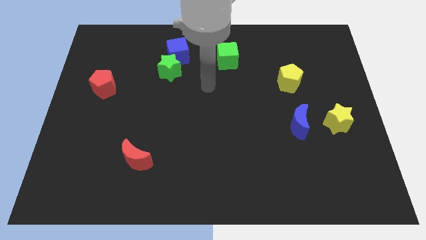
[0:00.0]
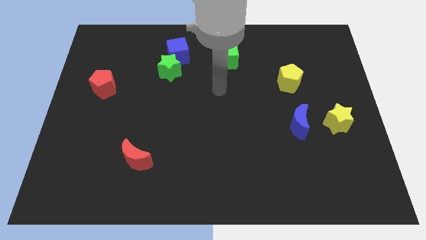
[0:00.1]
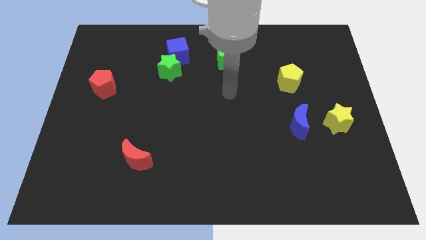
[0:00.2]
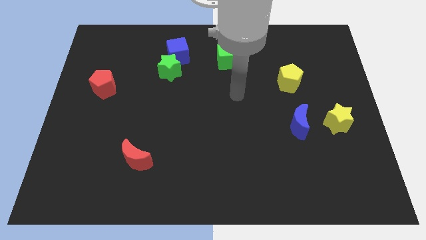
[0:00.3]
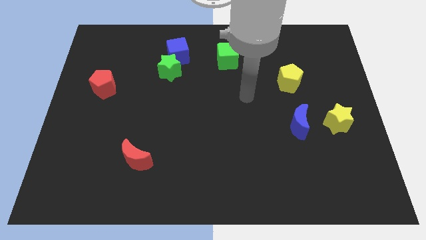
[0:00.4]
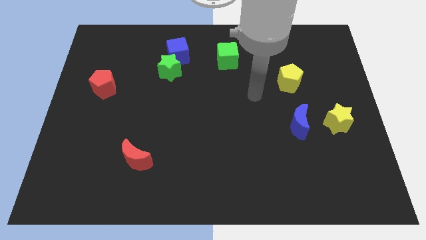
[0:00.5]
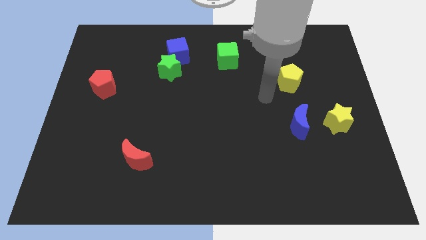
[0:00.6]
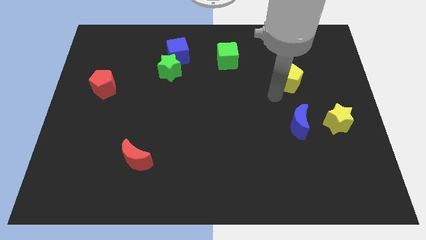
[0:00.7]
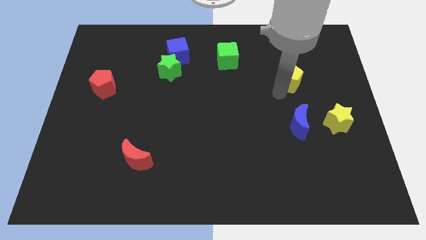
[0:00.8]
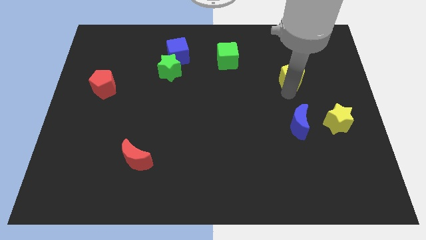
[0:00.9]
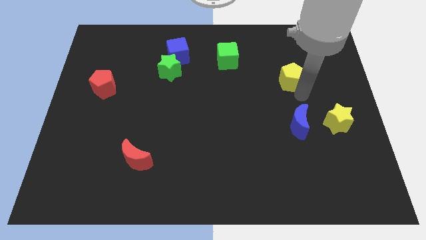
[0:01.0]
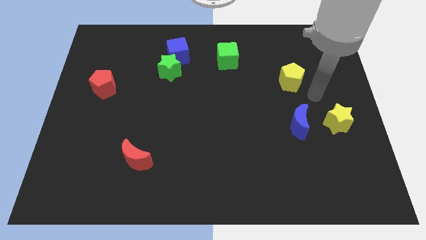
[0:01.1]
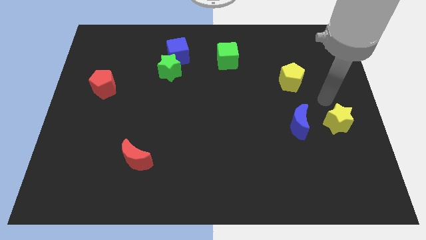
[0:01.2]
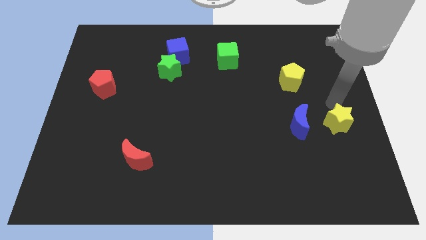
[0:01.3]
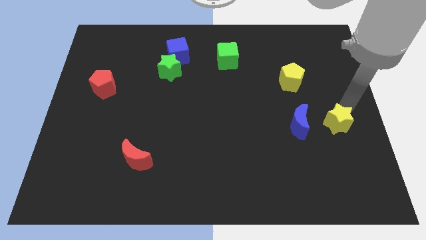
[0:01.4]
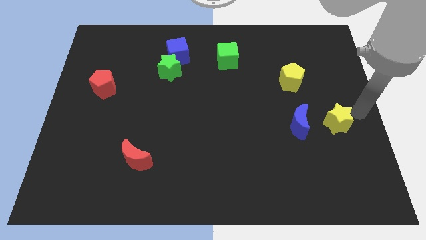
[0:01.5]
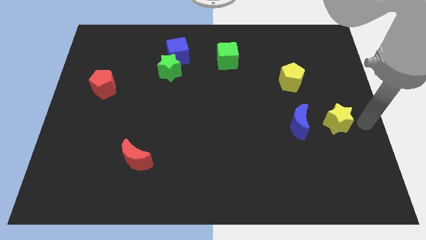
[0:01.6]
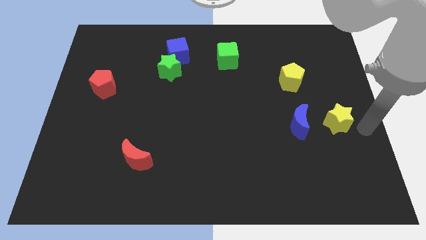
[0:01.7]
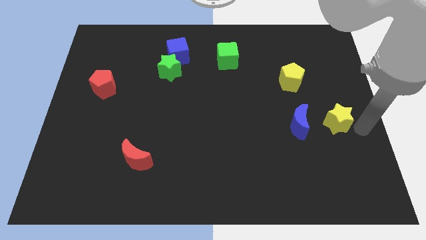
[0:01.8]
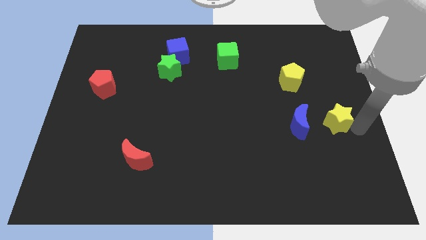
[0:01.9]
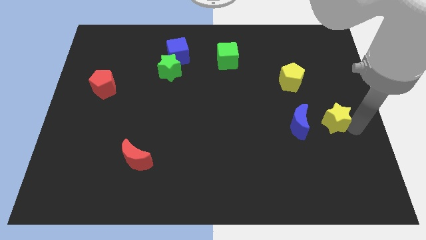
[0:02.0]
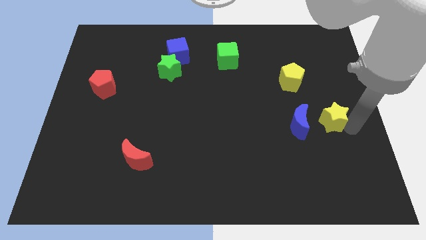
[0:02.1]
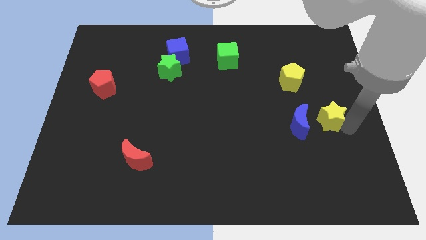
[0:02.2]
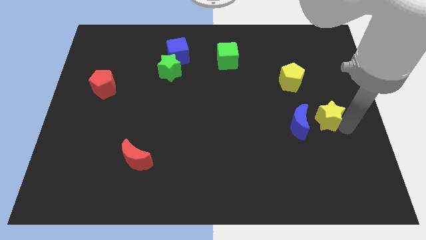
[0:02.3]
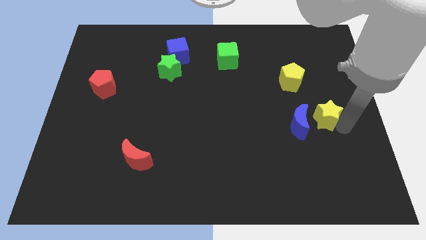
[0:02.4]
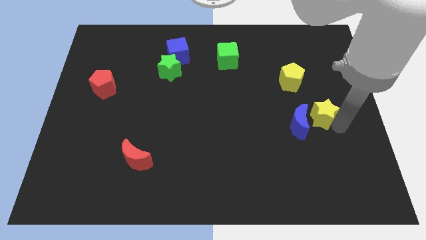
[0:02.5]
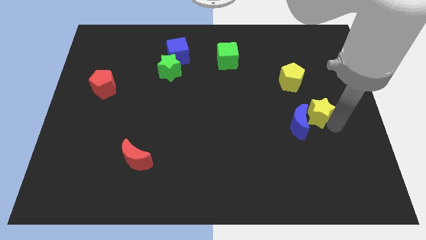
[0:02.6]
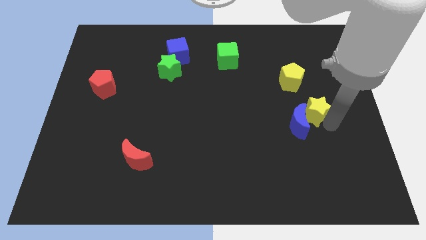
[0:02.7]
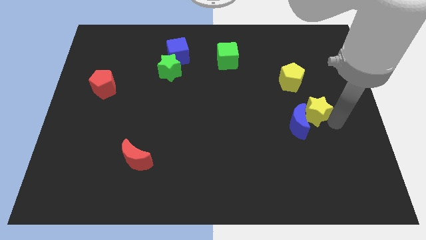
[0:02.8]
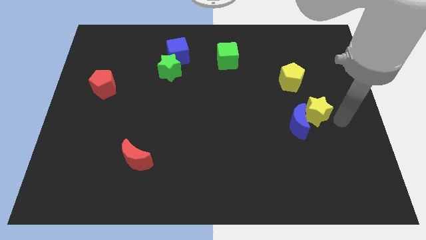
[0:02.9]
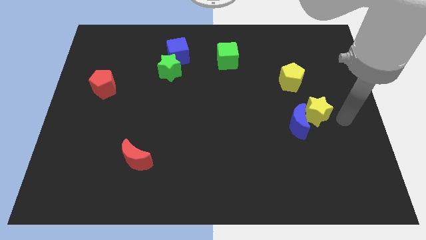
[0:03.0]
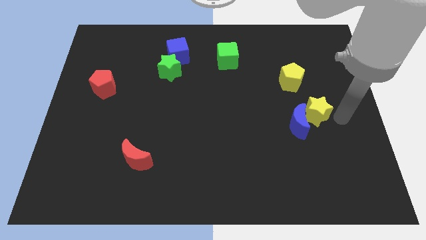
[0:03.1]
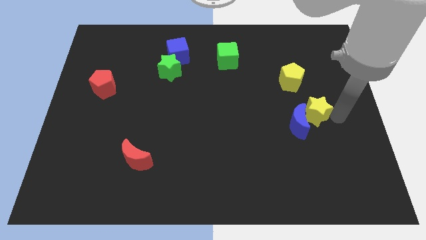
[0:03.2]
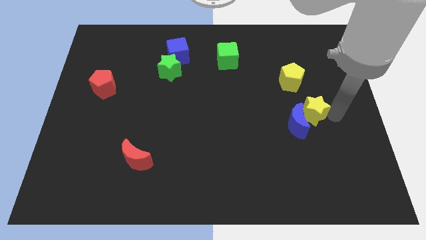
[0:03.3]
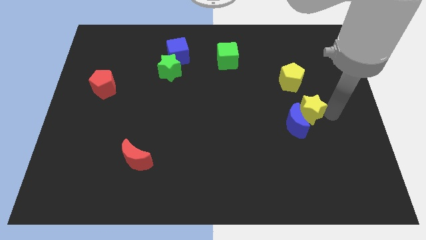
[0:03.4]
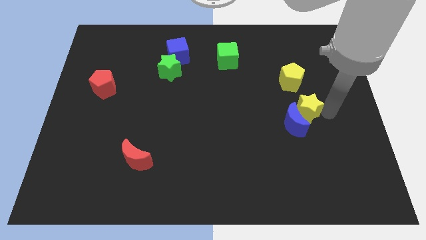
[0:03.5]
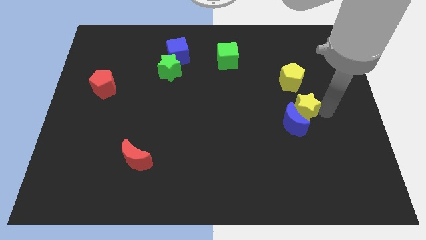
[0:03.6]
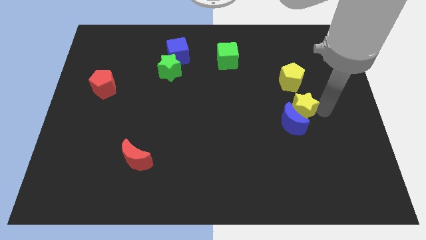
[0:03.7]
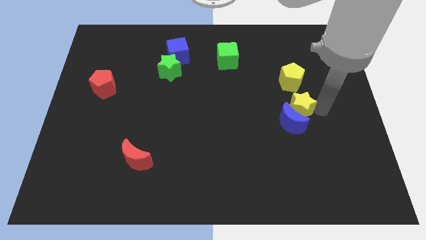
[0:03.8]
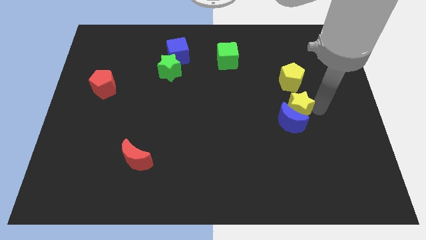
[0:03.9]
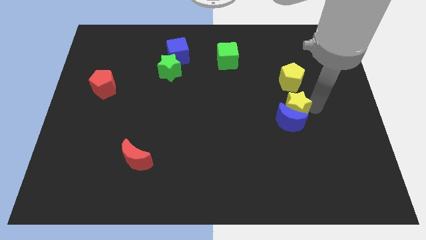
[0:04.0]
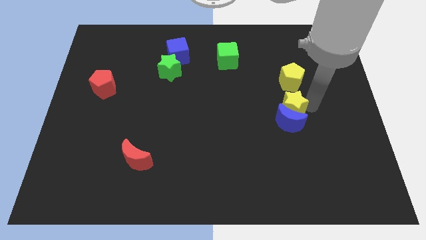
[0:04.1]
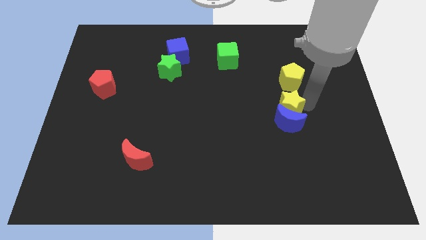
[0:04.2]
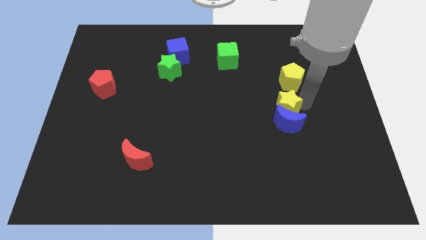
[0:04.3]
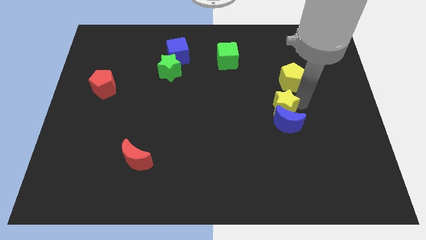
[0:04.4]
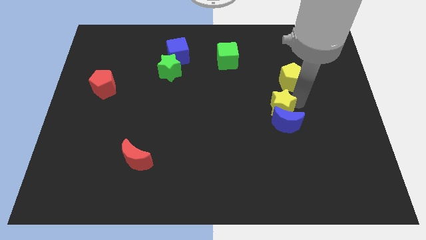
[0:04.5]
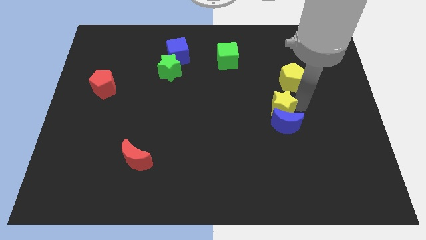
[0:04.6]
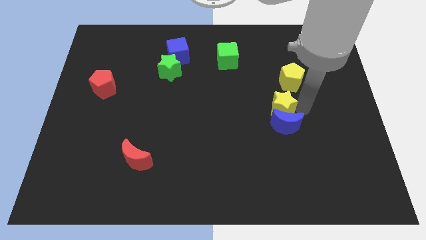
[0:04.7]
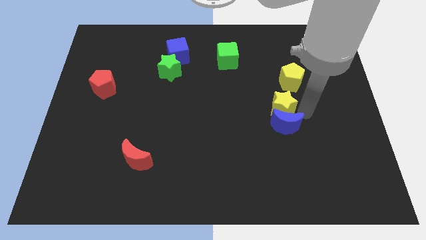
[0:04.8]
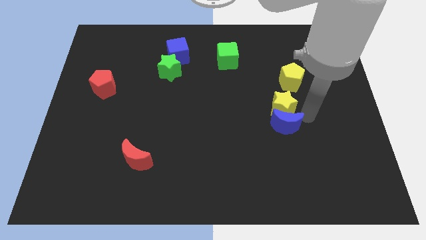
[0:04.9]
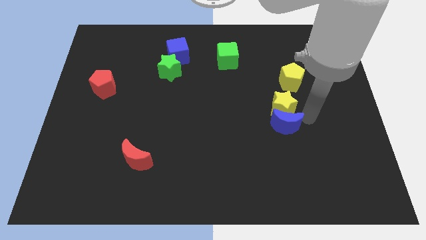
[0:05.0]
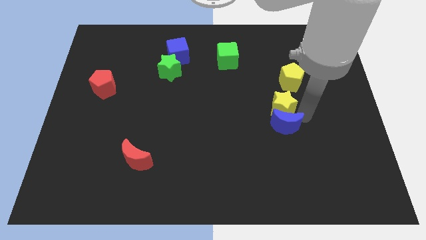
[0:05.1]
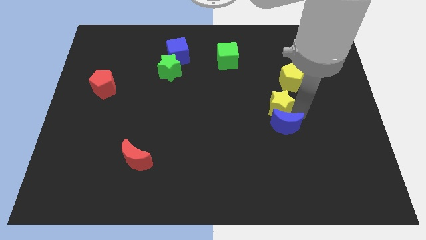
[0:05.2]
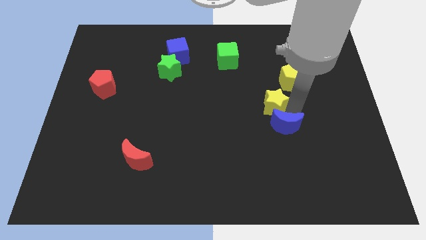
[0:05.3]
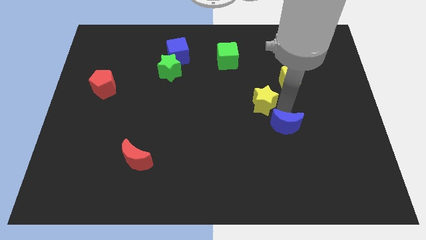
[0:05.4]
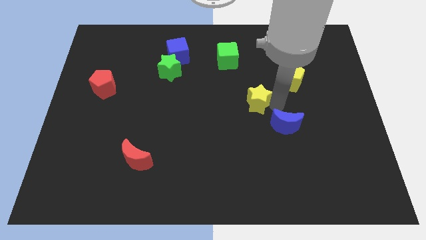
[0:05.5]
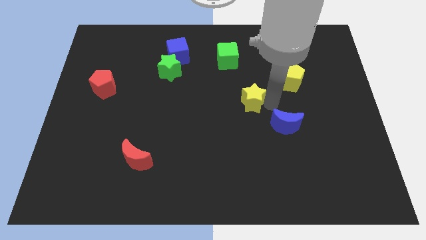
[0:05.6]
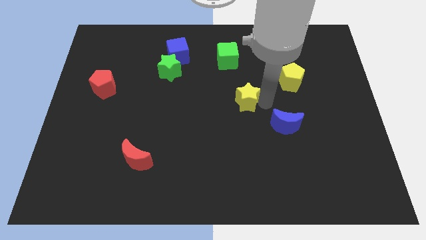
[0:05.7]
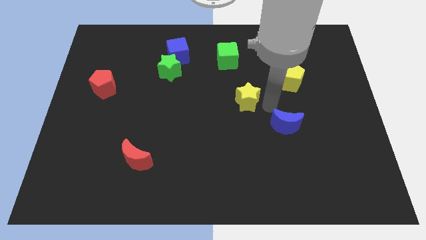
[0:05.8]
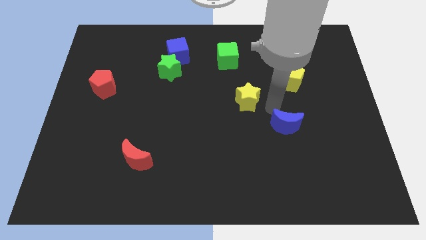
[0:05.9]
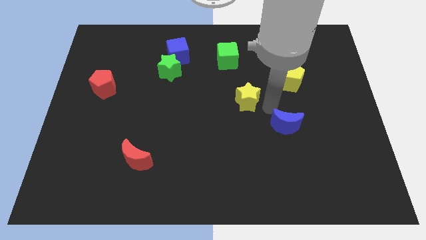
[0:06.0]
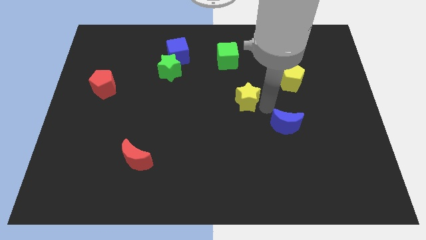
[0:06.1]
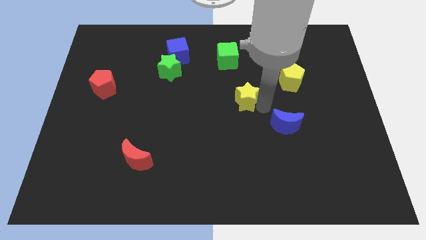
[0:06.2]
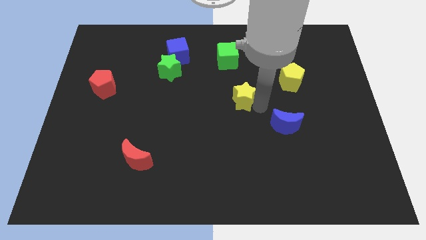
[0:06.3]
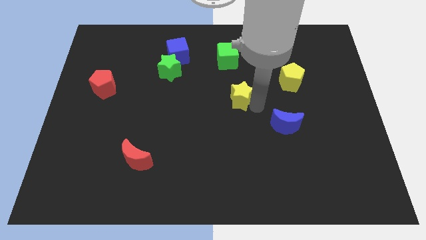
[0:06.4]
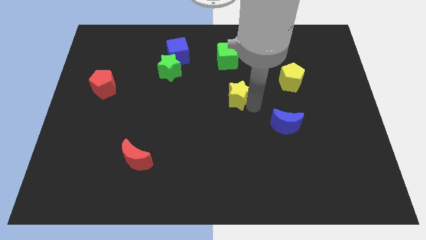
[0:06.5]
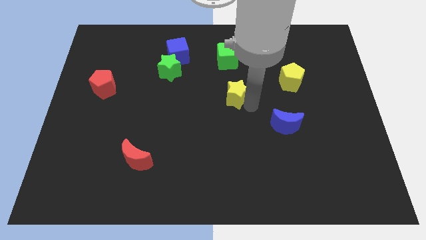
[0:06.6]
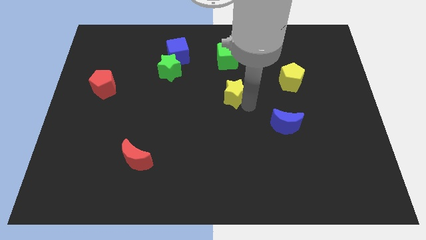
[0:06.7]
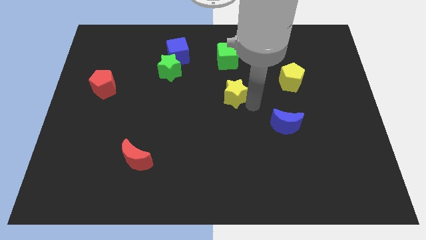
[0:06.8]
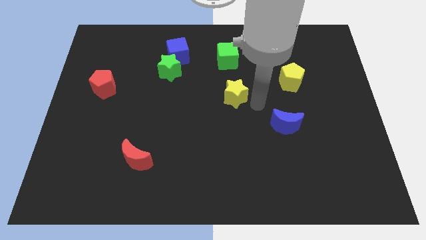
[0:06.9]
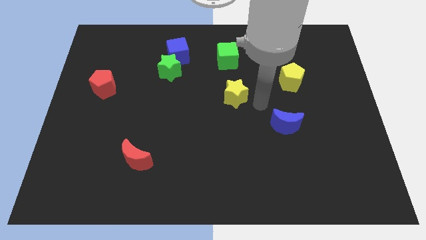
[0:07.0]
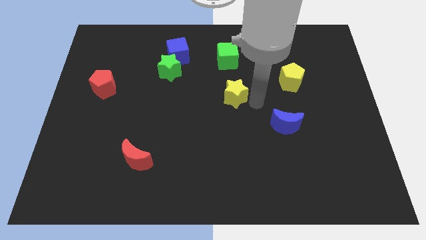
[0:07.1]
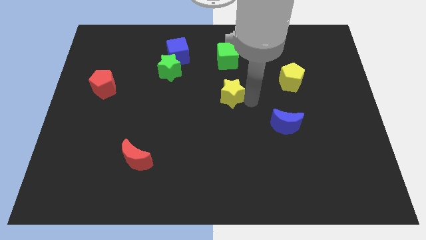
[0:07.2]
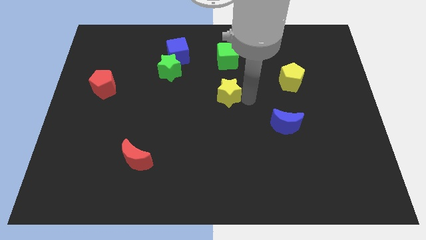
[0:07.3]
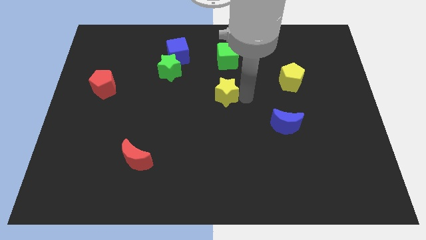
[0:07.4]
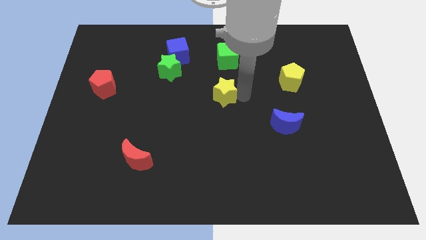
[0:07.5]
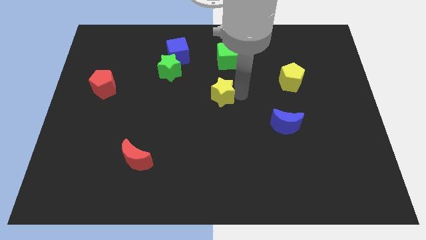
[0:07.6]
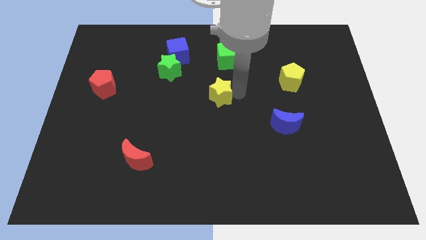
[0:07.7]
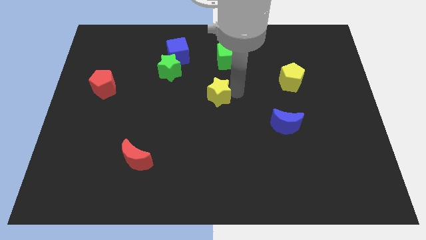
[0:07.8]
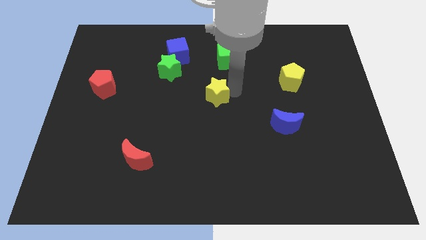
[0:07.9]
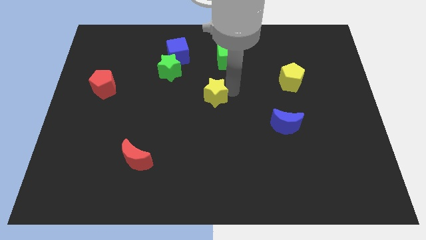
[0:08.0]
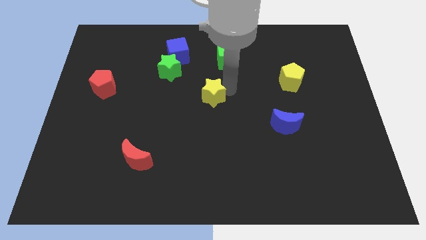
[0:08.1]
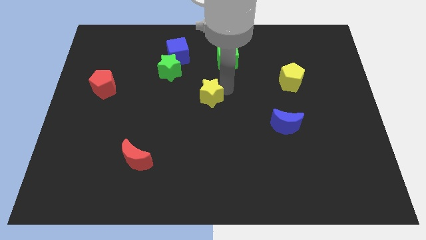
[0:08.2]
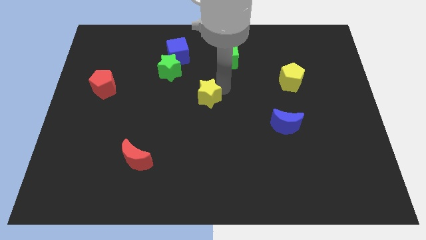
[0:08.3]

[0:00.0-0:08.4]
put the yellow star to the bottom right of the green star
